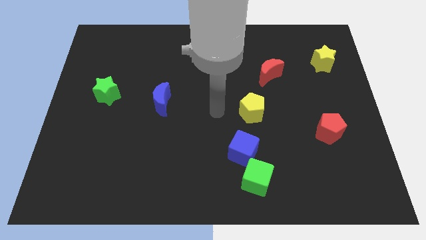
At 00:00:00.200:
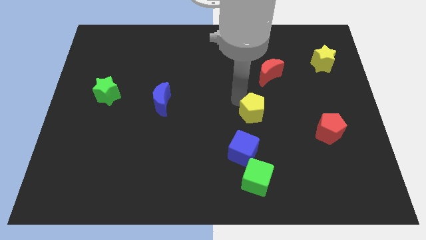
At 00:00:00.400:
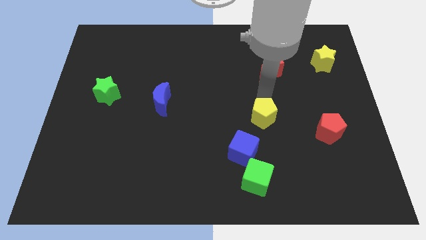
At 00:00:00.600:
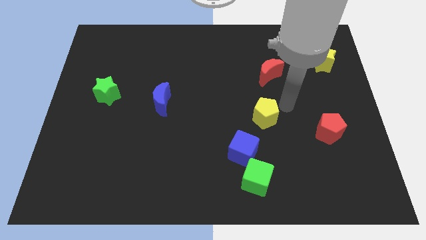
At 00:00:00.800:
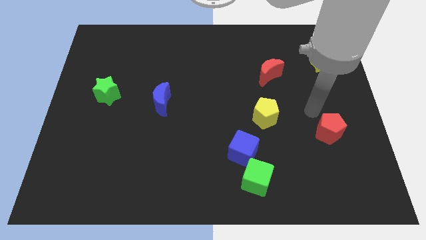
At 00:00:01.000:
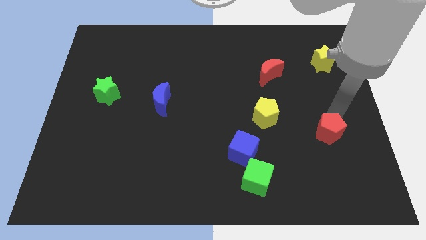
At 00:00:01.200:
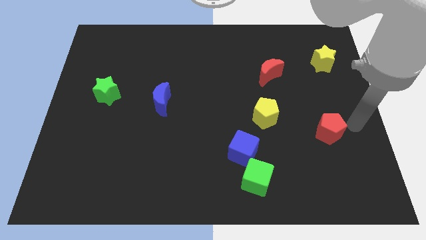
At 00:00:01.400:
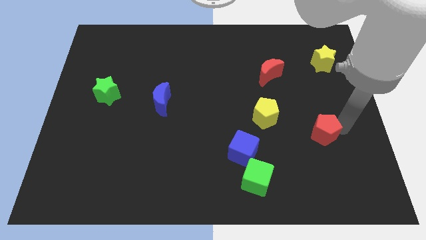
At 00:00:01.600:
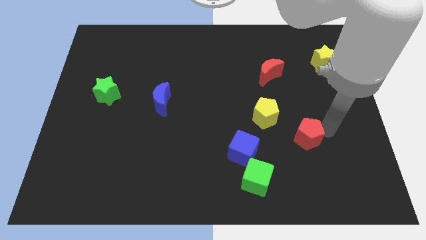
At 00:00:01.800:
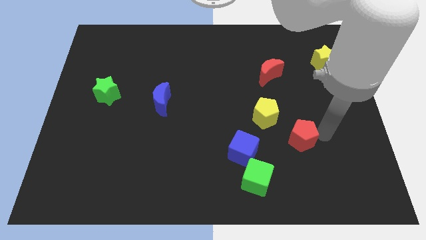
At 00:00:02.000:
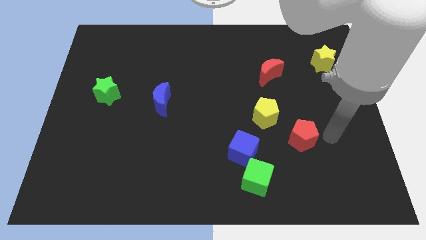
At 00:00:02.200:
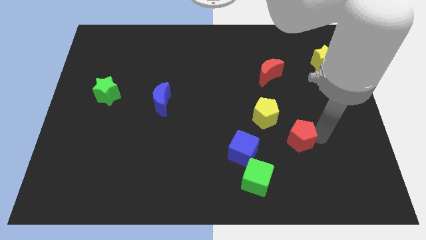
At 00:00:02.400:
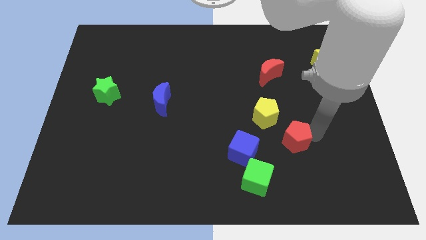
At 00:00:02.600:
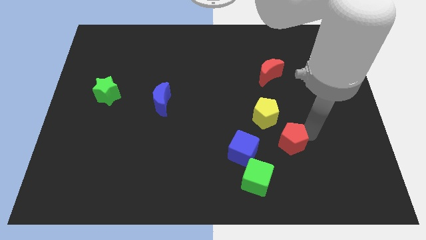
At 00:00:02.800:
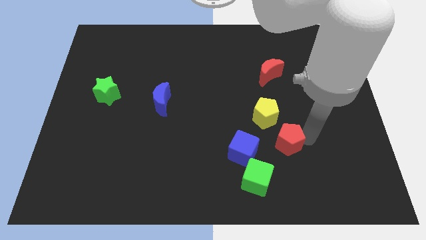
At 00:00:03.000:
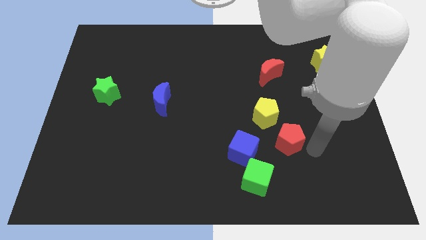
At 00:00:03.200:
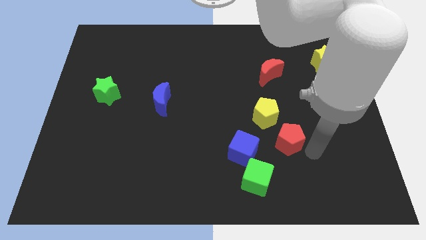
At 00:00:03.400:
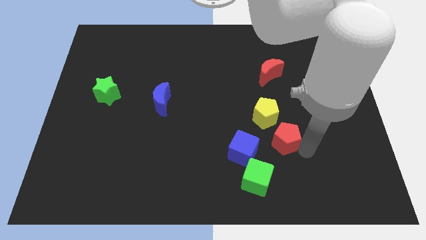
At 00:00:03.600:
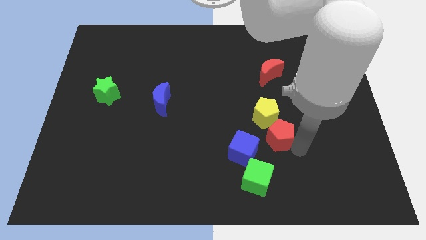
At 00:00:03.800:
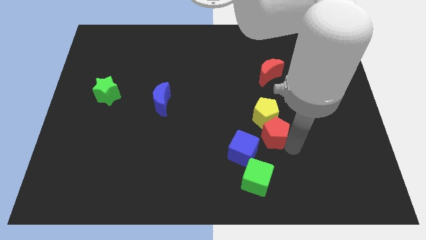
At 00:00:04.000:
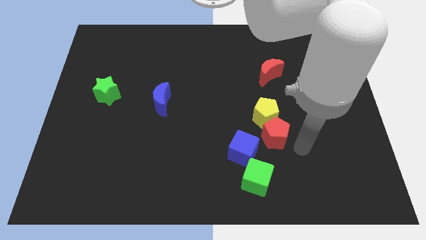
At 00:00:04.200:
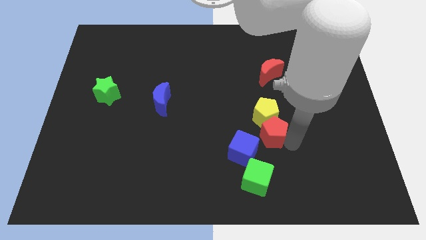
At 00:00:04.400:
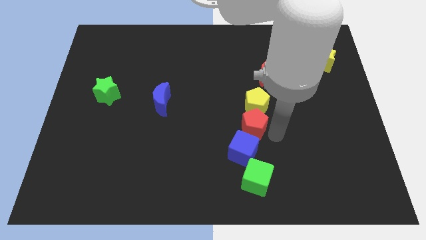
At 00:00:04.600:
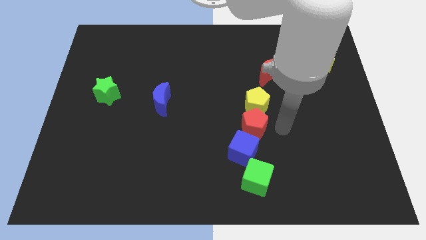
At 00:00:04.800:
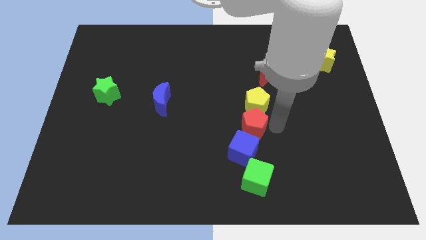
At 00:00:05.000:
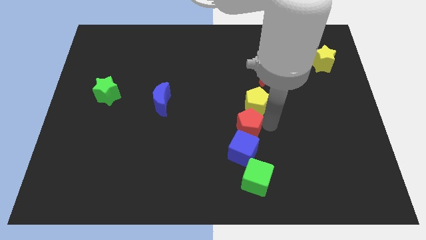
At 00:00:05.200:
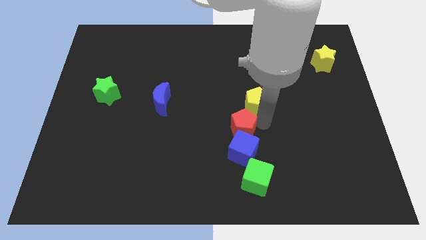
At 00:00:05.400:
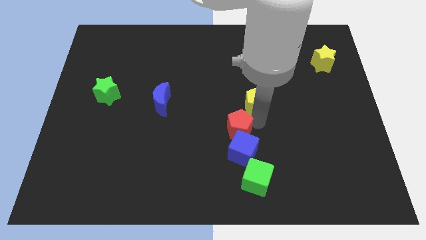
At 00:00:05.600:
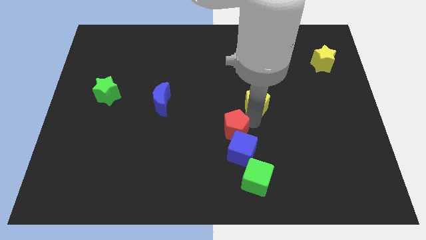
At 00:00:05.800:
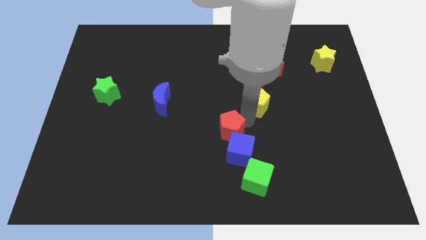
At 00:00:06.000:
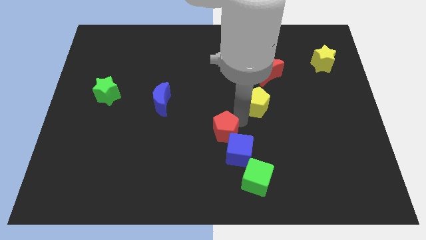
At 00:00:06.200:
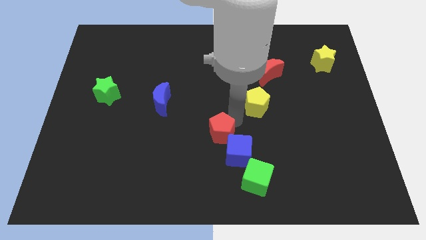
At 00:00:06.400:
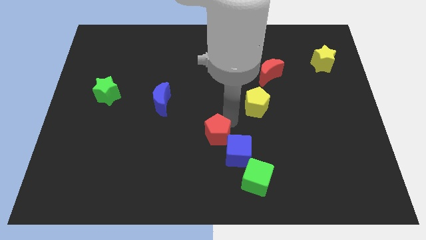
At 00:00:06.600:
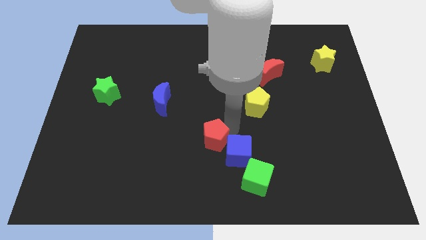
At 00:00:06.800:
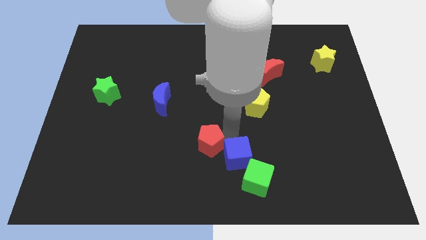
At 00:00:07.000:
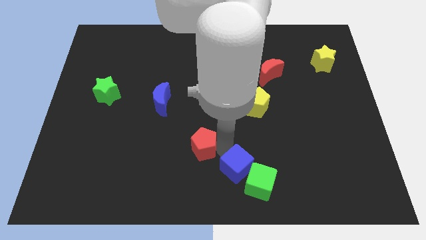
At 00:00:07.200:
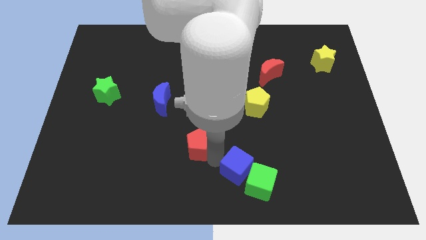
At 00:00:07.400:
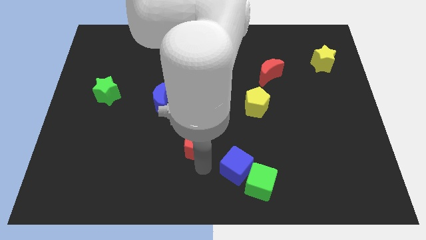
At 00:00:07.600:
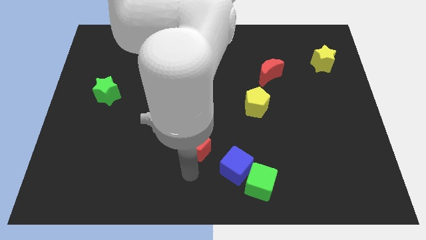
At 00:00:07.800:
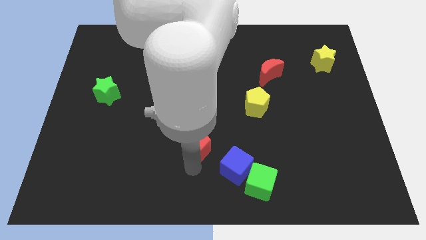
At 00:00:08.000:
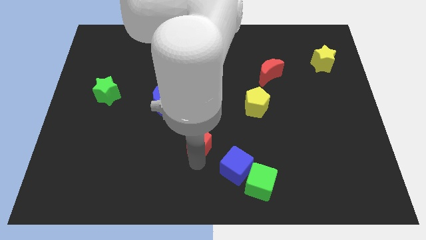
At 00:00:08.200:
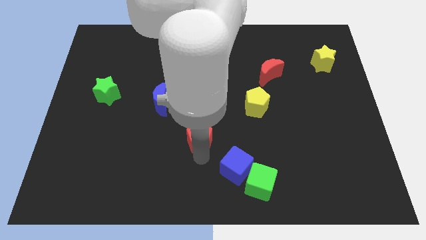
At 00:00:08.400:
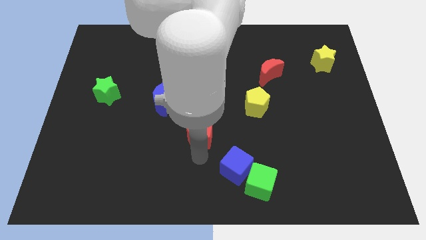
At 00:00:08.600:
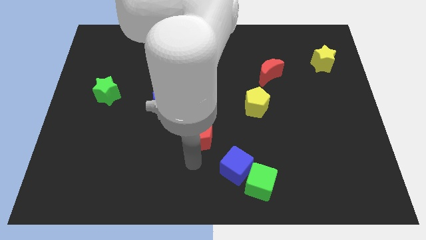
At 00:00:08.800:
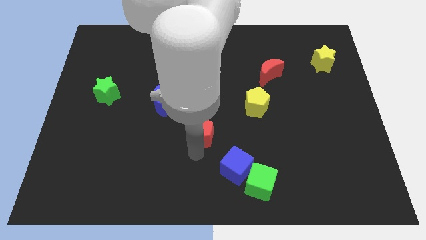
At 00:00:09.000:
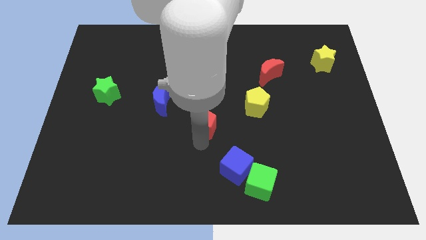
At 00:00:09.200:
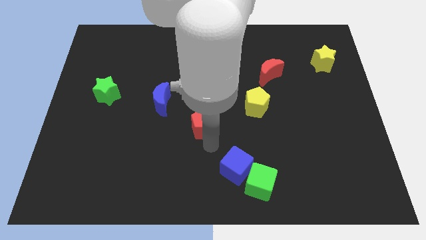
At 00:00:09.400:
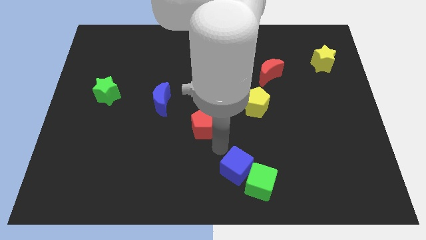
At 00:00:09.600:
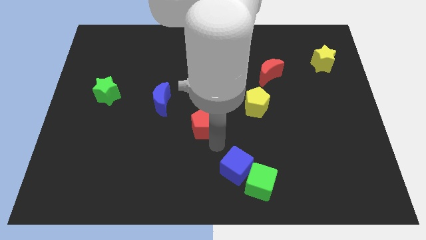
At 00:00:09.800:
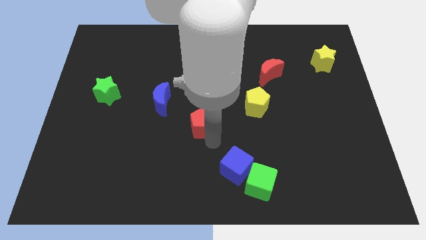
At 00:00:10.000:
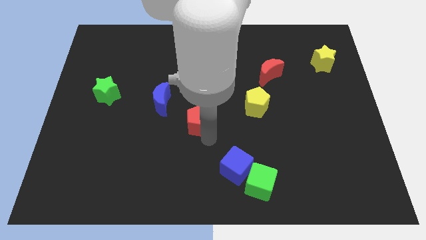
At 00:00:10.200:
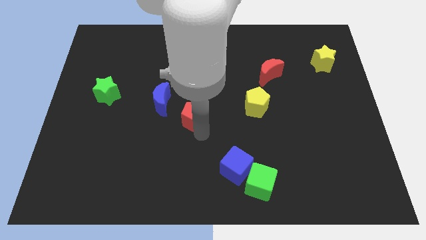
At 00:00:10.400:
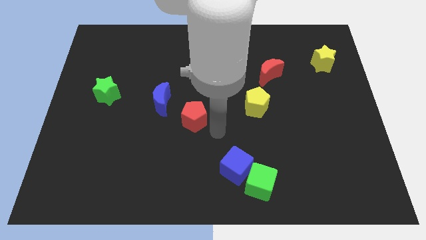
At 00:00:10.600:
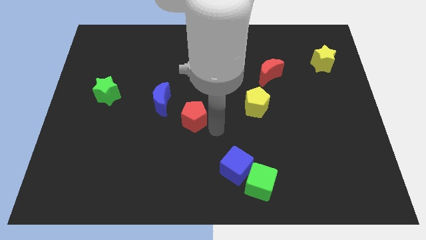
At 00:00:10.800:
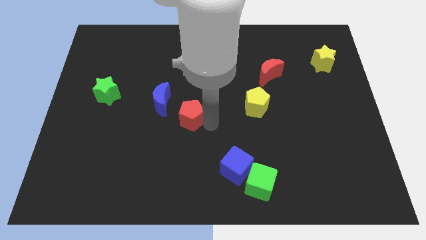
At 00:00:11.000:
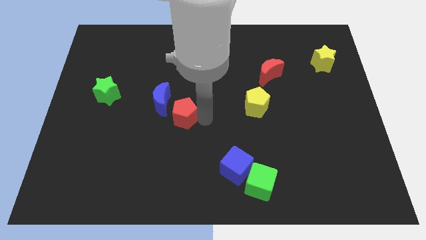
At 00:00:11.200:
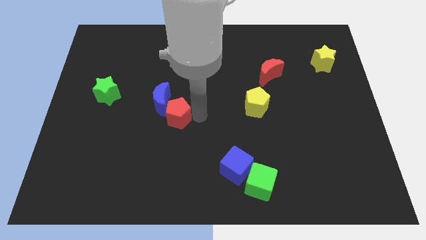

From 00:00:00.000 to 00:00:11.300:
push the red pentagon towards the blue moon

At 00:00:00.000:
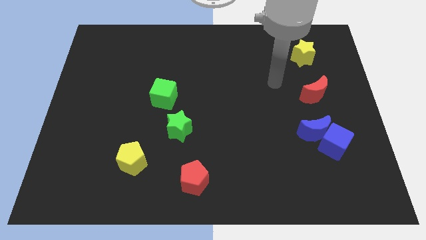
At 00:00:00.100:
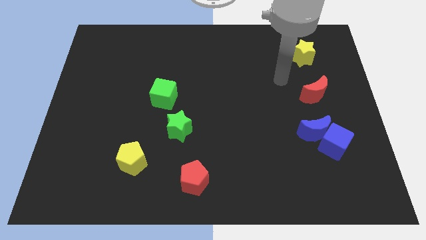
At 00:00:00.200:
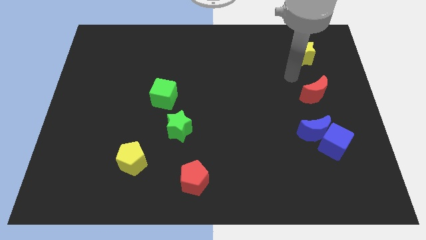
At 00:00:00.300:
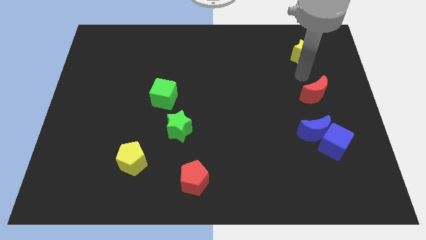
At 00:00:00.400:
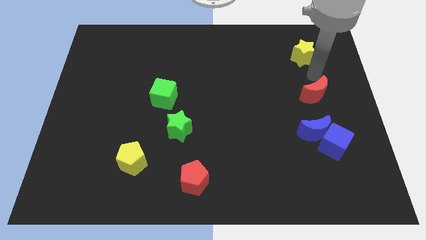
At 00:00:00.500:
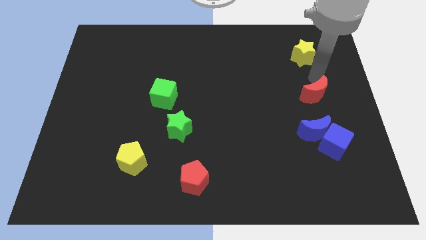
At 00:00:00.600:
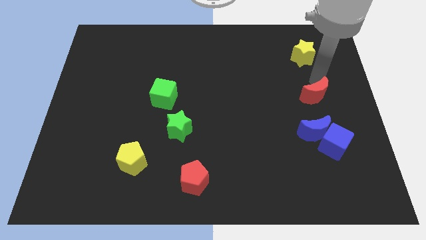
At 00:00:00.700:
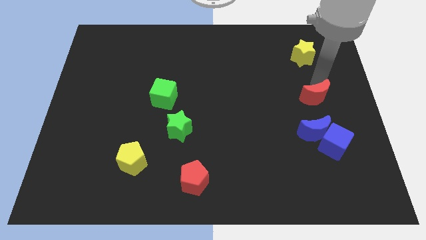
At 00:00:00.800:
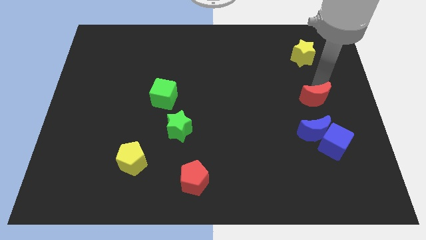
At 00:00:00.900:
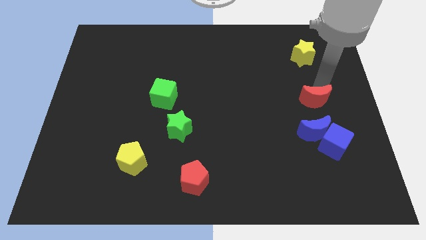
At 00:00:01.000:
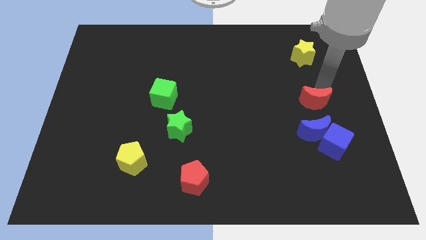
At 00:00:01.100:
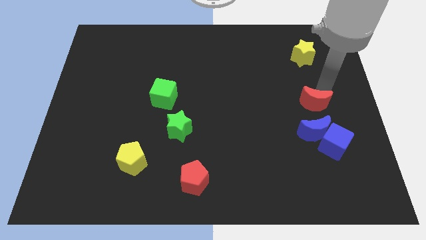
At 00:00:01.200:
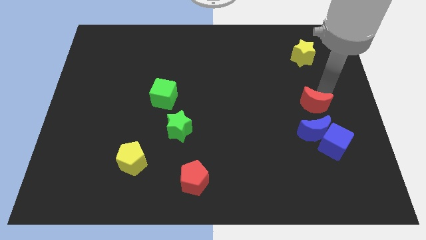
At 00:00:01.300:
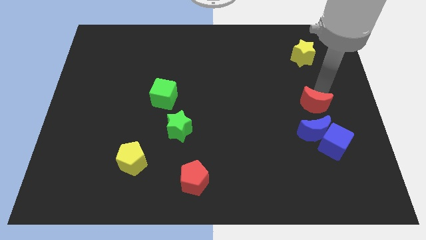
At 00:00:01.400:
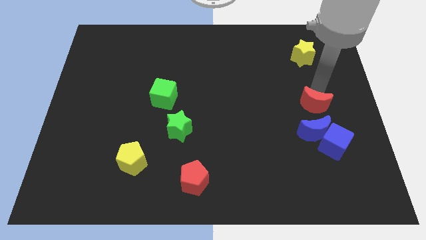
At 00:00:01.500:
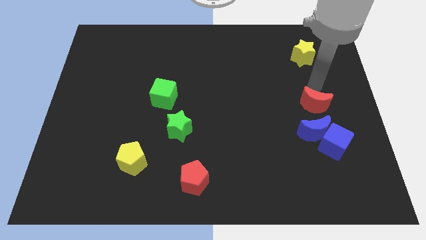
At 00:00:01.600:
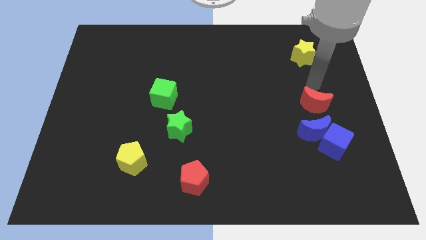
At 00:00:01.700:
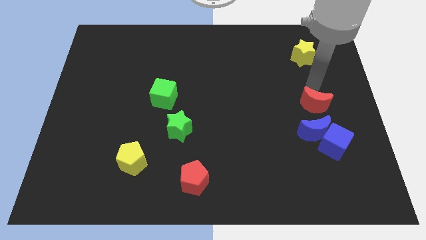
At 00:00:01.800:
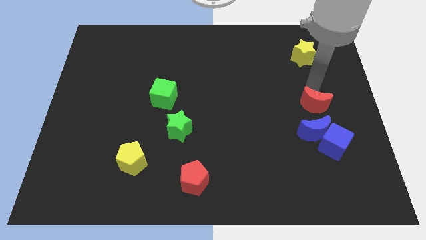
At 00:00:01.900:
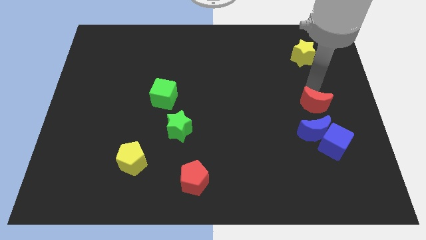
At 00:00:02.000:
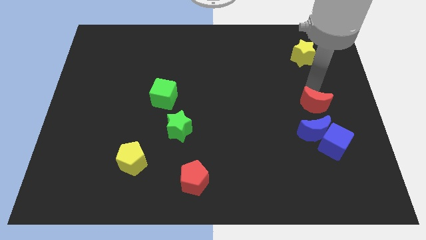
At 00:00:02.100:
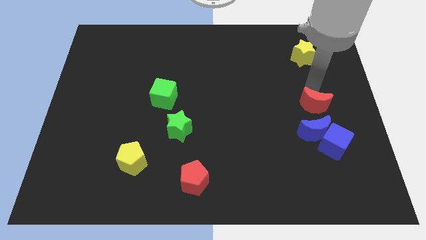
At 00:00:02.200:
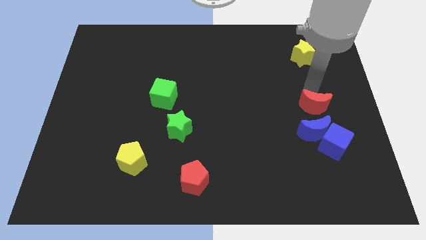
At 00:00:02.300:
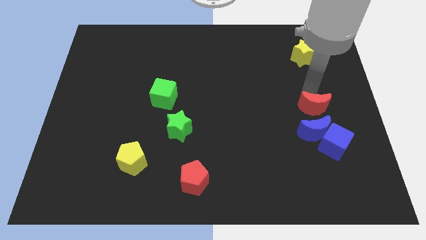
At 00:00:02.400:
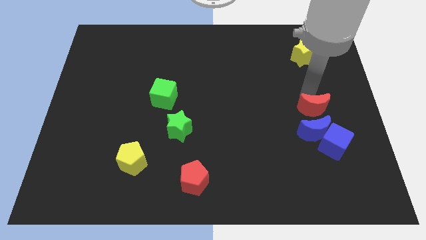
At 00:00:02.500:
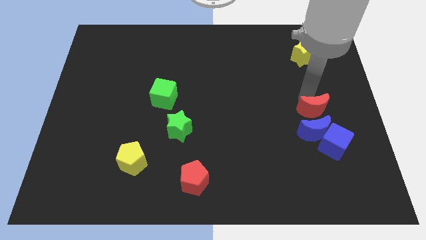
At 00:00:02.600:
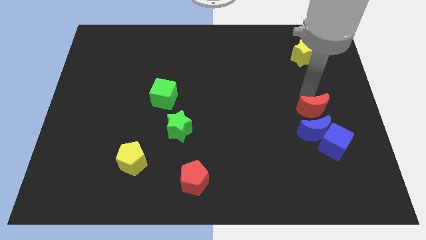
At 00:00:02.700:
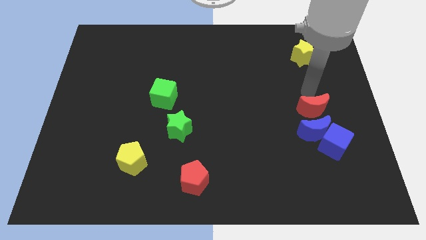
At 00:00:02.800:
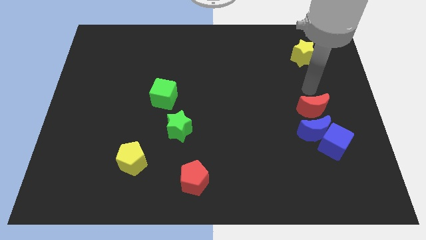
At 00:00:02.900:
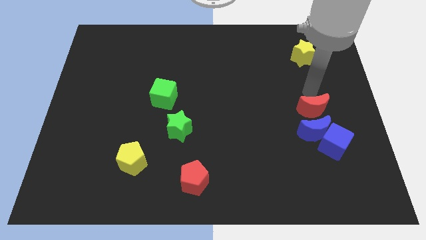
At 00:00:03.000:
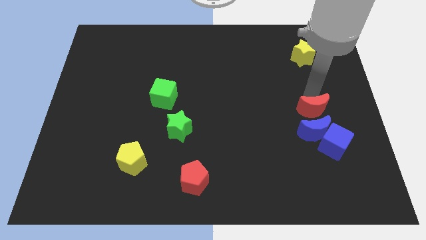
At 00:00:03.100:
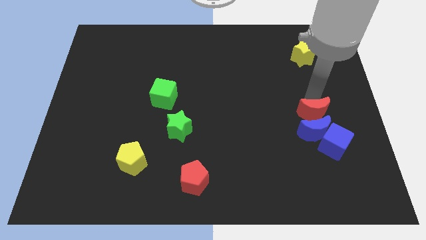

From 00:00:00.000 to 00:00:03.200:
put the red moon to the blue moon
